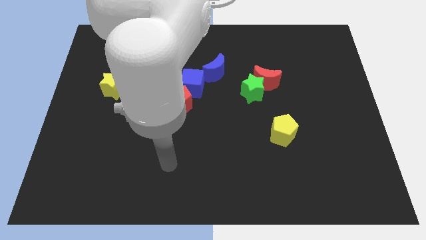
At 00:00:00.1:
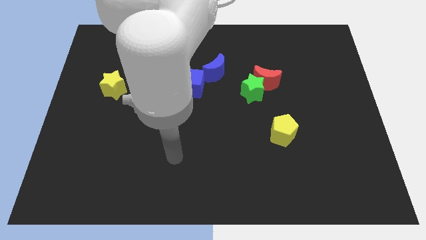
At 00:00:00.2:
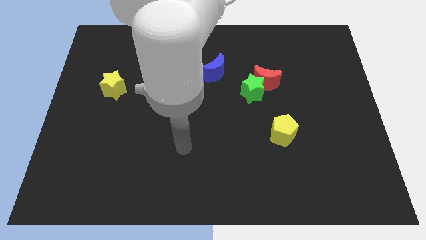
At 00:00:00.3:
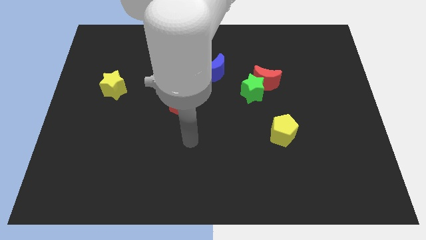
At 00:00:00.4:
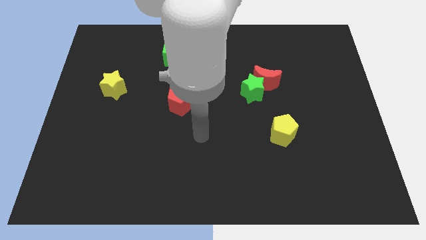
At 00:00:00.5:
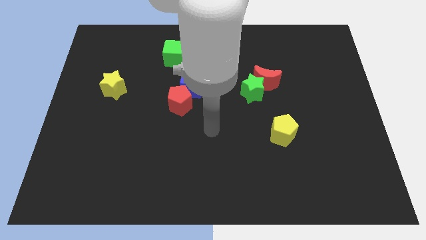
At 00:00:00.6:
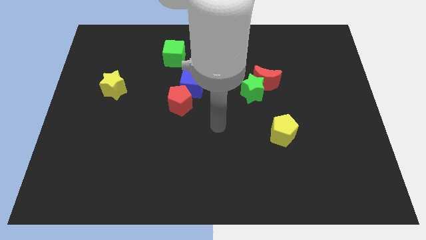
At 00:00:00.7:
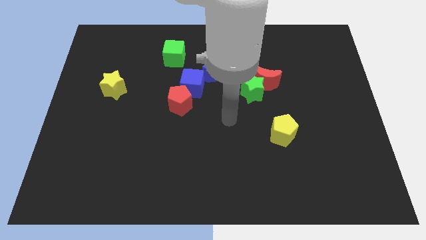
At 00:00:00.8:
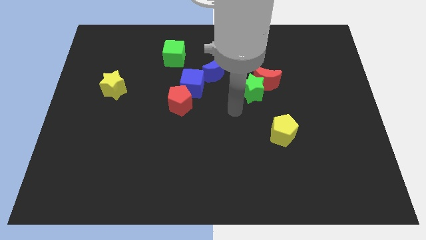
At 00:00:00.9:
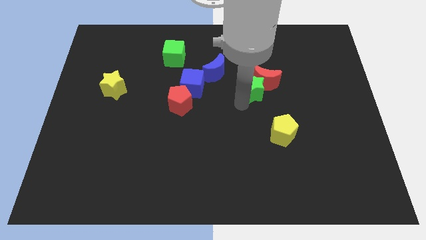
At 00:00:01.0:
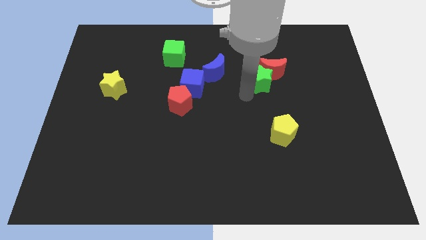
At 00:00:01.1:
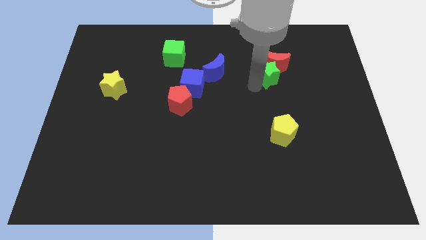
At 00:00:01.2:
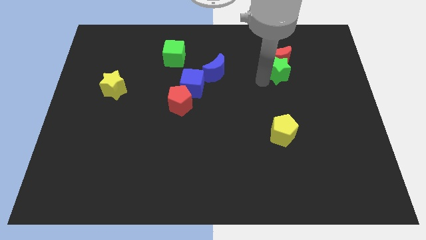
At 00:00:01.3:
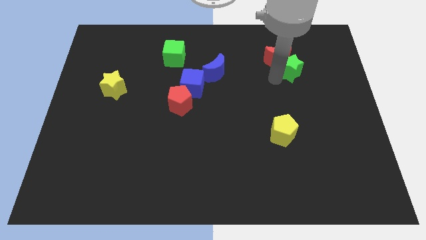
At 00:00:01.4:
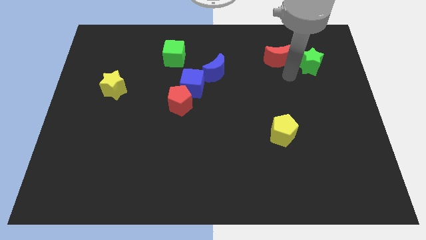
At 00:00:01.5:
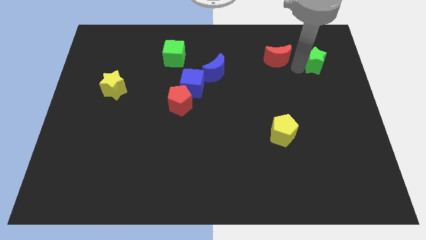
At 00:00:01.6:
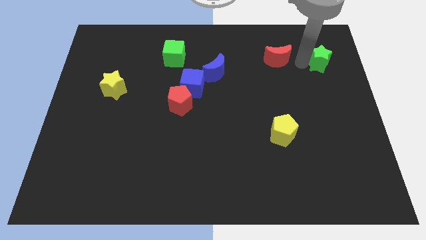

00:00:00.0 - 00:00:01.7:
separate the red moon from the green star

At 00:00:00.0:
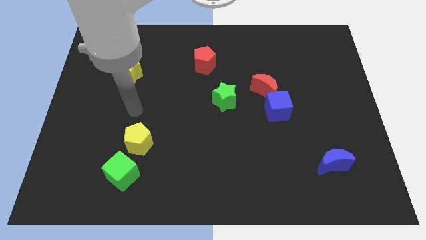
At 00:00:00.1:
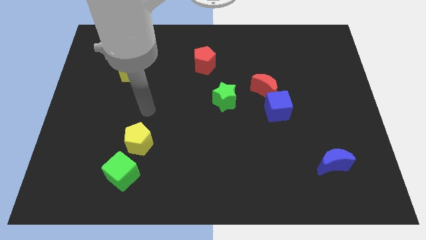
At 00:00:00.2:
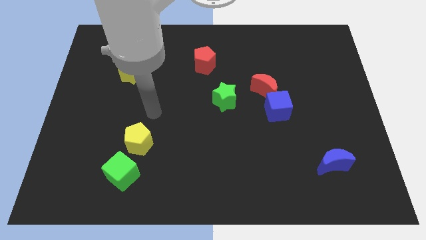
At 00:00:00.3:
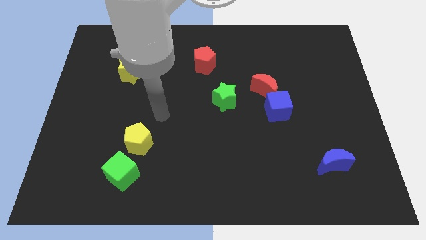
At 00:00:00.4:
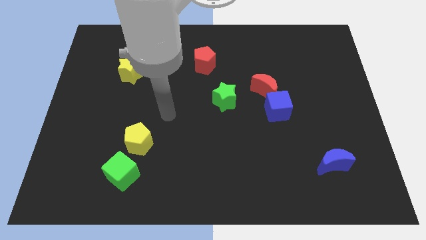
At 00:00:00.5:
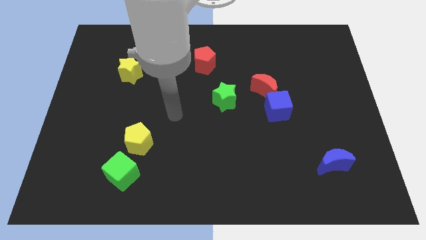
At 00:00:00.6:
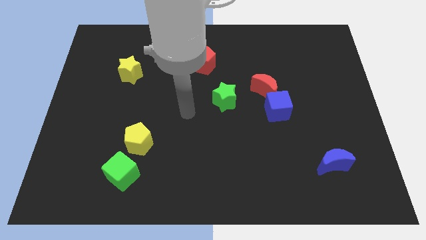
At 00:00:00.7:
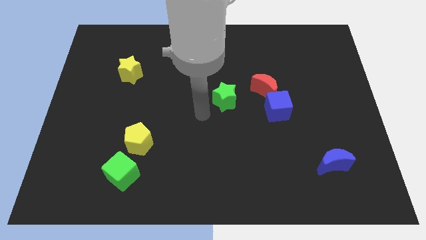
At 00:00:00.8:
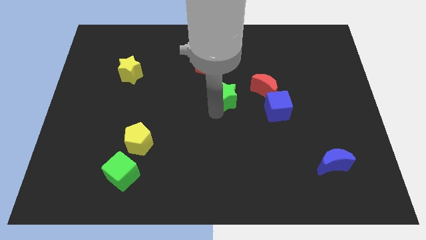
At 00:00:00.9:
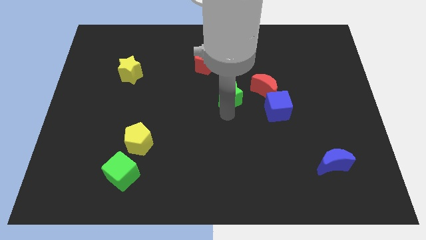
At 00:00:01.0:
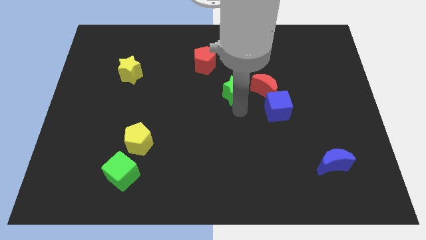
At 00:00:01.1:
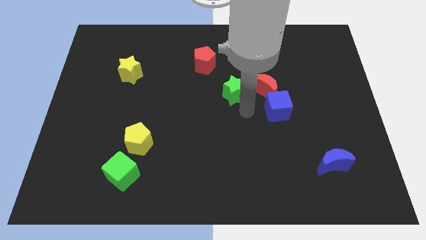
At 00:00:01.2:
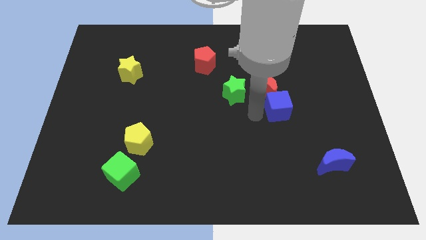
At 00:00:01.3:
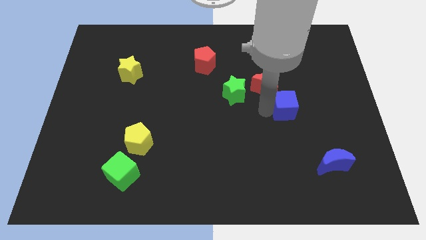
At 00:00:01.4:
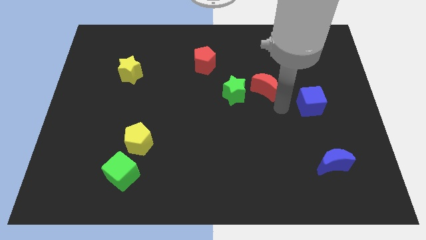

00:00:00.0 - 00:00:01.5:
pull the red moon apart from the blue cube

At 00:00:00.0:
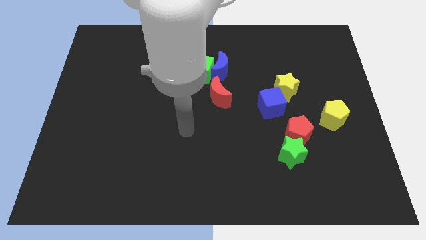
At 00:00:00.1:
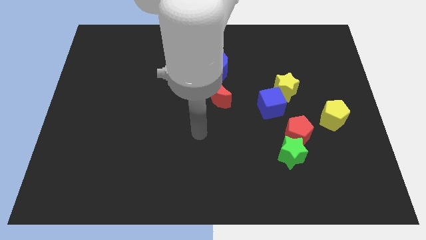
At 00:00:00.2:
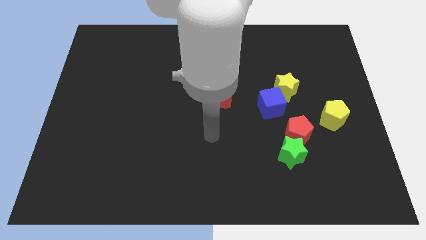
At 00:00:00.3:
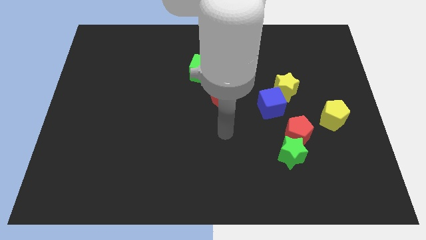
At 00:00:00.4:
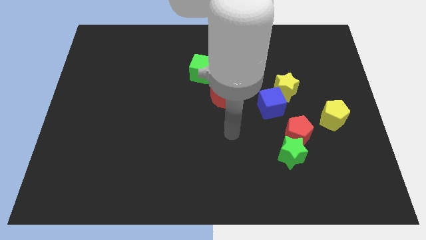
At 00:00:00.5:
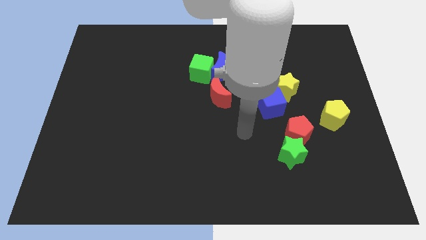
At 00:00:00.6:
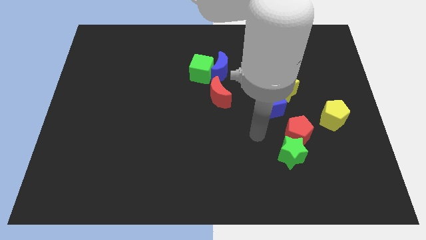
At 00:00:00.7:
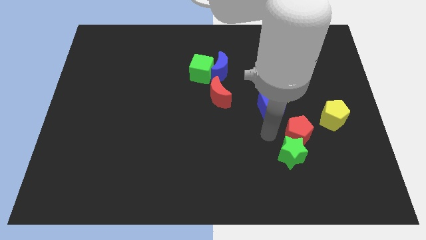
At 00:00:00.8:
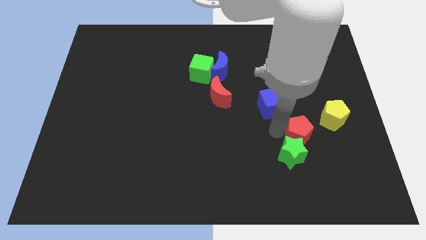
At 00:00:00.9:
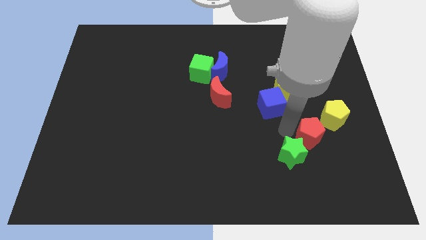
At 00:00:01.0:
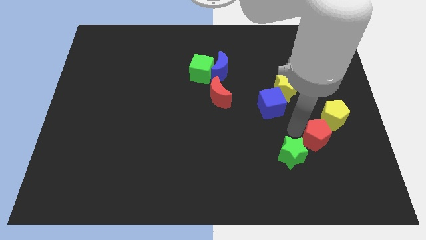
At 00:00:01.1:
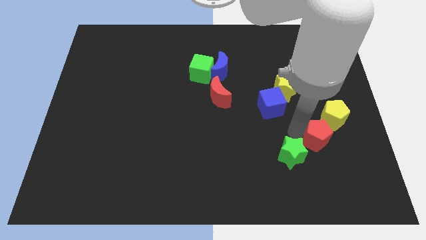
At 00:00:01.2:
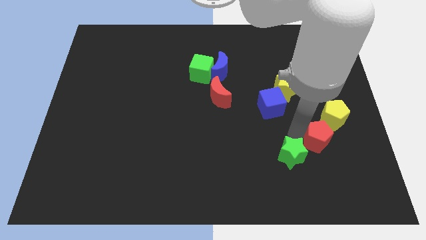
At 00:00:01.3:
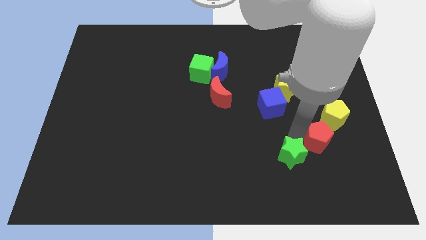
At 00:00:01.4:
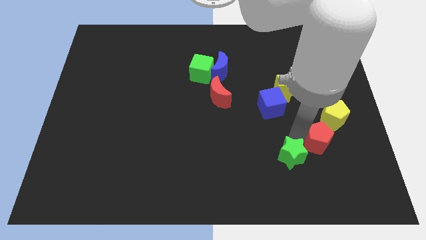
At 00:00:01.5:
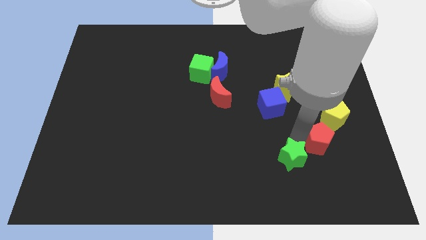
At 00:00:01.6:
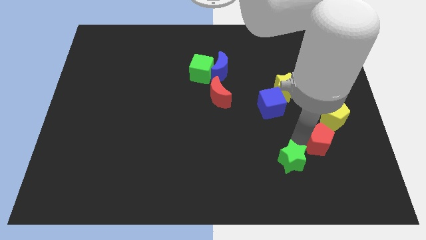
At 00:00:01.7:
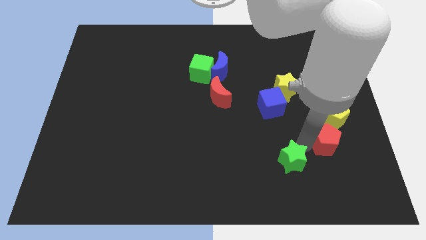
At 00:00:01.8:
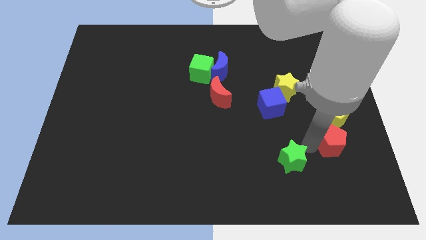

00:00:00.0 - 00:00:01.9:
pull the green star apart from the red pentagon

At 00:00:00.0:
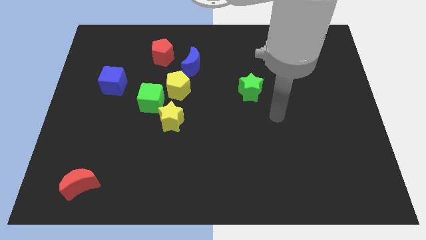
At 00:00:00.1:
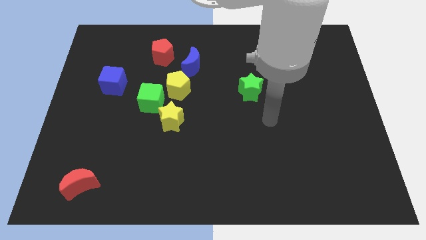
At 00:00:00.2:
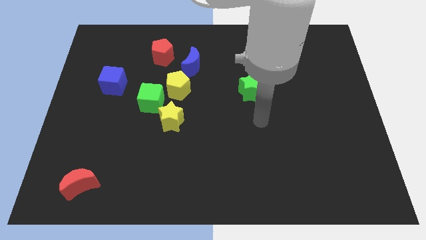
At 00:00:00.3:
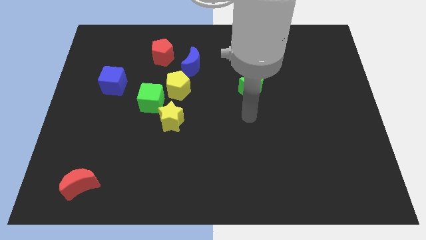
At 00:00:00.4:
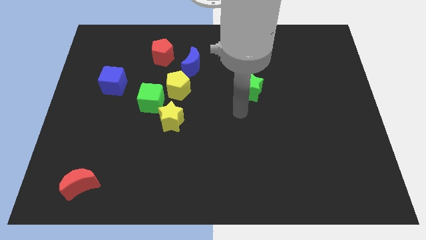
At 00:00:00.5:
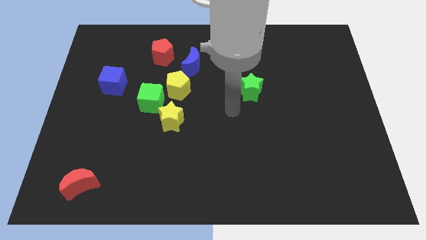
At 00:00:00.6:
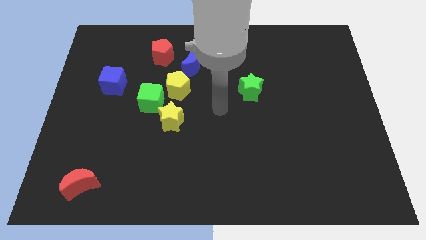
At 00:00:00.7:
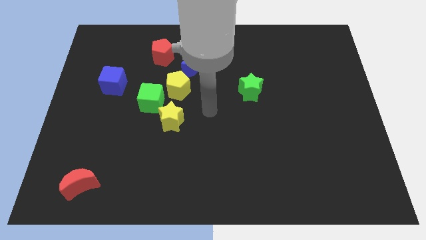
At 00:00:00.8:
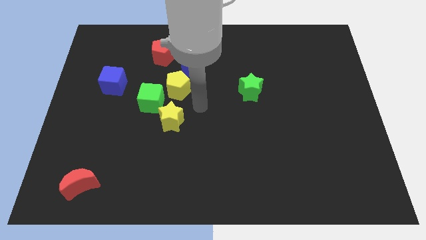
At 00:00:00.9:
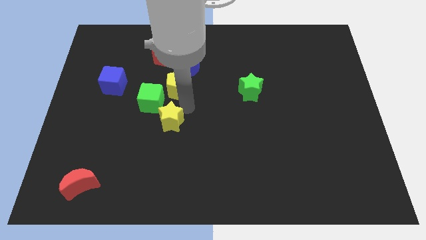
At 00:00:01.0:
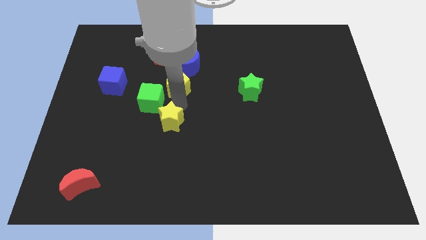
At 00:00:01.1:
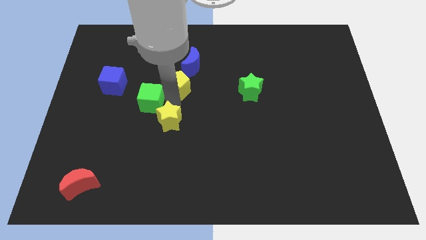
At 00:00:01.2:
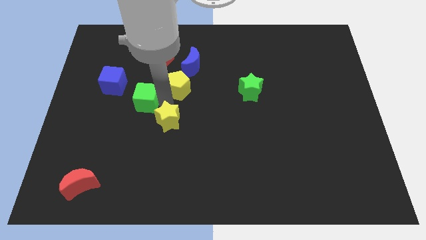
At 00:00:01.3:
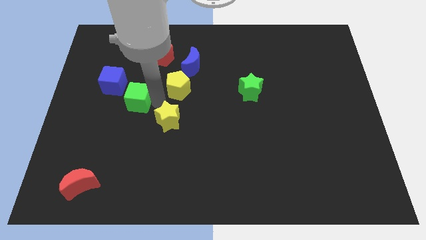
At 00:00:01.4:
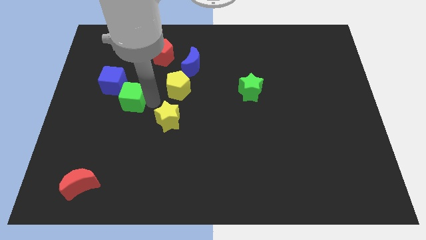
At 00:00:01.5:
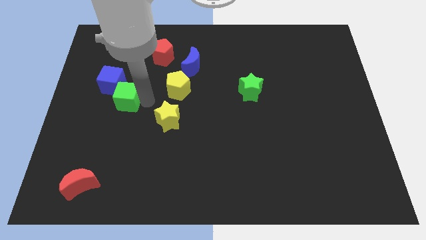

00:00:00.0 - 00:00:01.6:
move the green cube away from the yellow pentagon and yellow star

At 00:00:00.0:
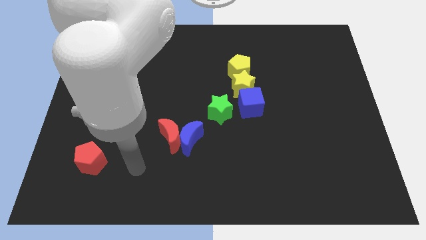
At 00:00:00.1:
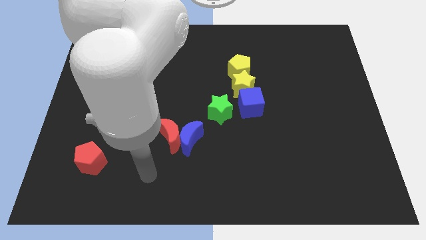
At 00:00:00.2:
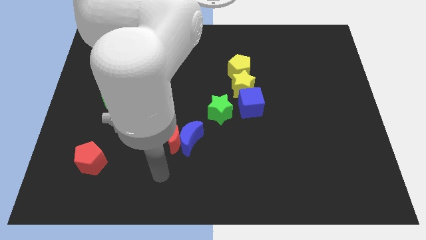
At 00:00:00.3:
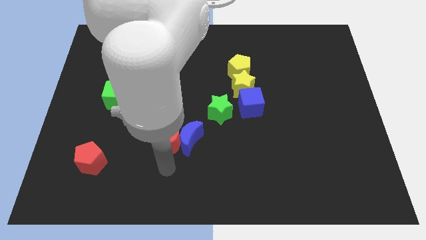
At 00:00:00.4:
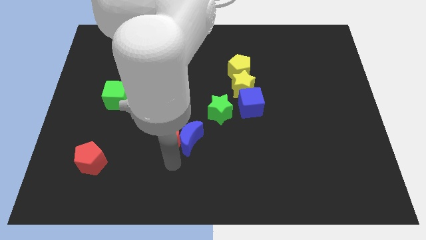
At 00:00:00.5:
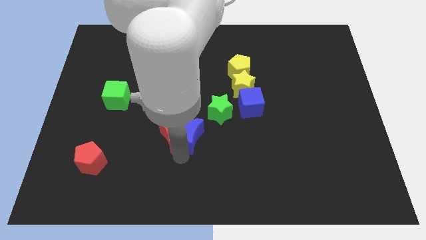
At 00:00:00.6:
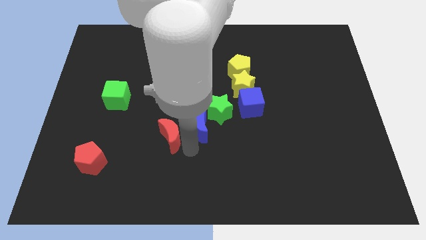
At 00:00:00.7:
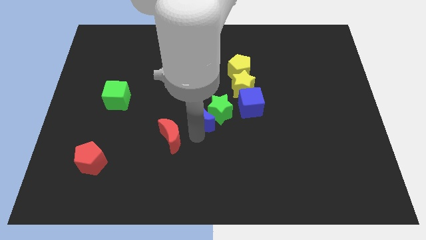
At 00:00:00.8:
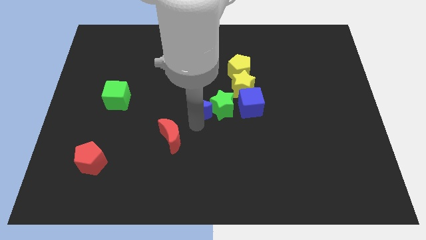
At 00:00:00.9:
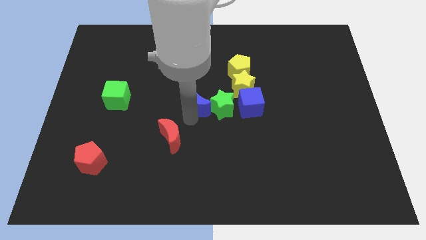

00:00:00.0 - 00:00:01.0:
pull the red moon apart from the blue moon

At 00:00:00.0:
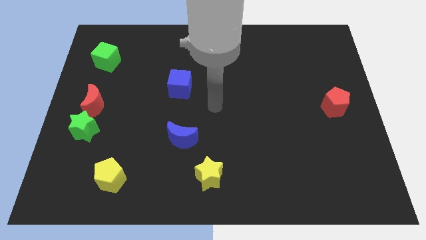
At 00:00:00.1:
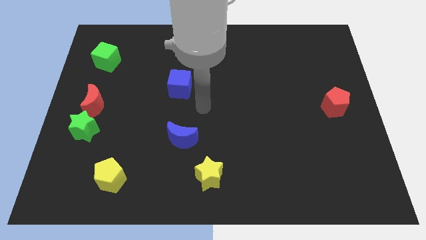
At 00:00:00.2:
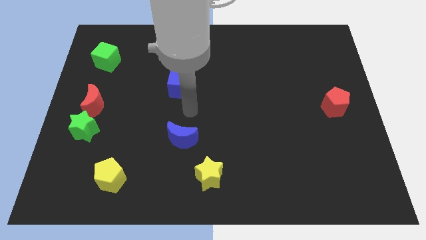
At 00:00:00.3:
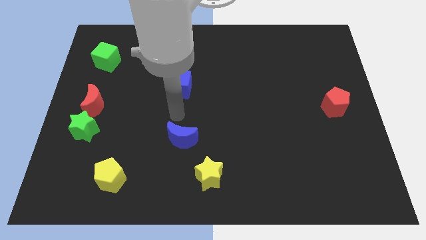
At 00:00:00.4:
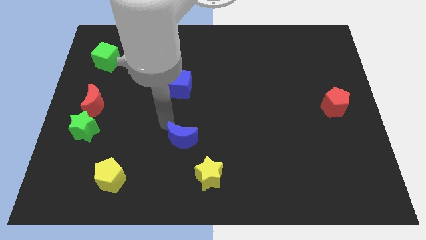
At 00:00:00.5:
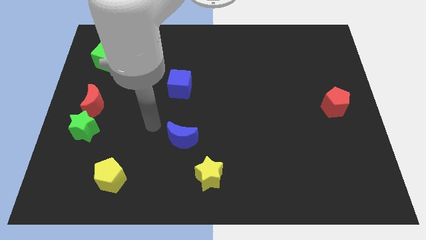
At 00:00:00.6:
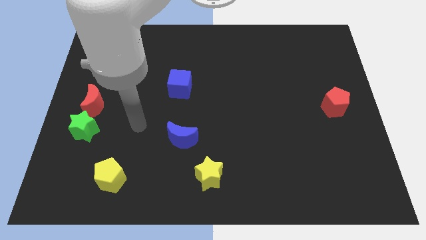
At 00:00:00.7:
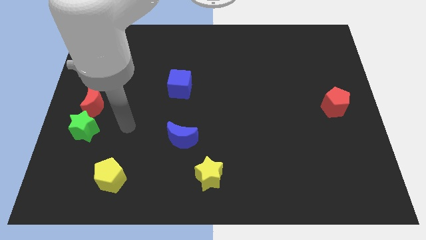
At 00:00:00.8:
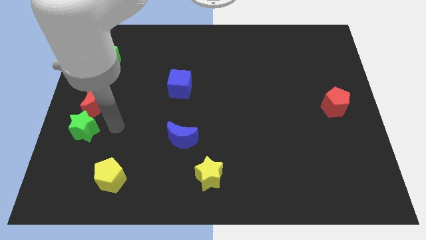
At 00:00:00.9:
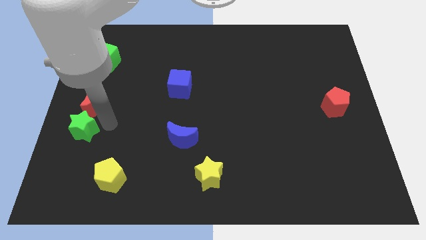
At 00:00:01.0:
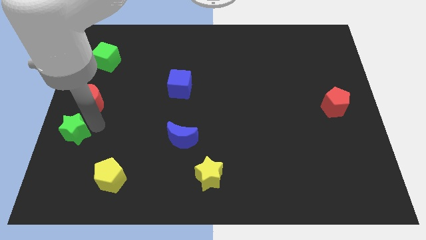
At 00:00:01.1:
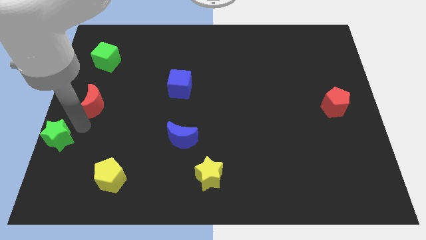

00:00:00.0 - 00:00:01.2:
move the red moon away from the green star

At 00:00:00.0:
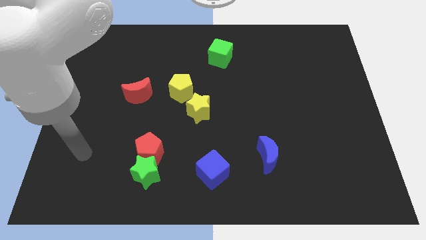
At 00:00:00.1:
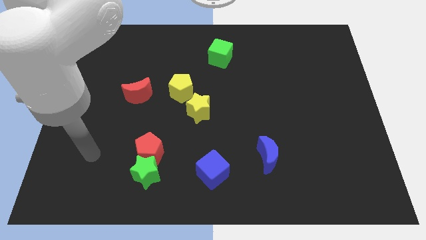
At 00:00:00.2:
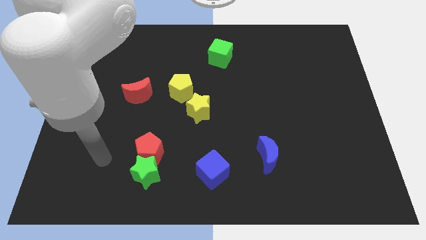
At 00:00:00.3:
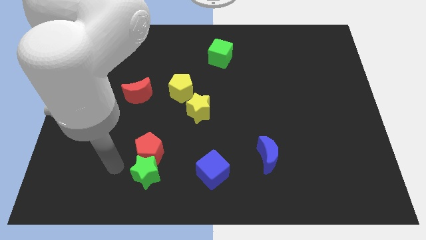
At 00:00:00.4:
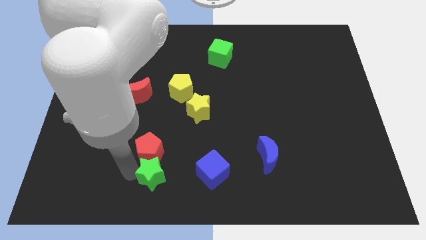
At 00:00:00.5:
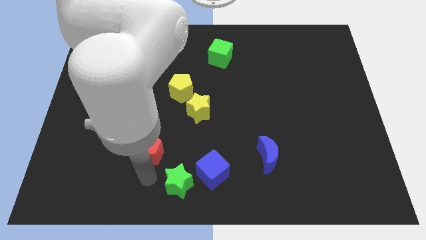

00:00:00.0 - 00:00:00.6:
move the red pentagon away from the green star
